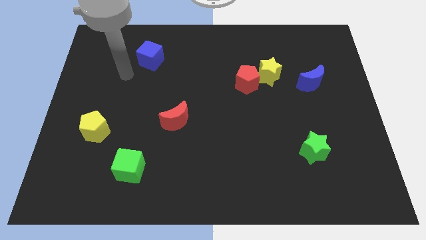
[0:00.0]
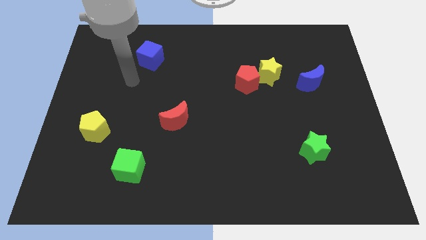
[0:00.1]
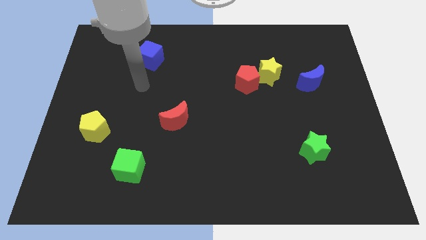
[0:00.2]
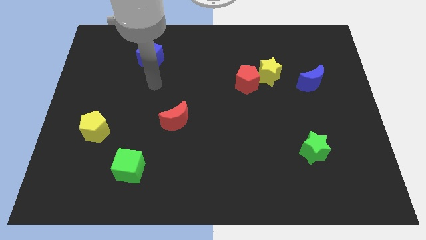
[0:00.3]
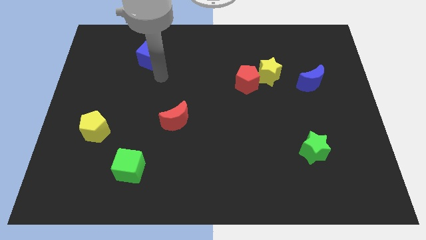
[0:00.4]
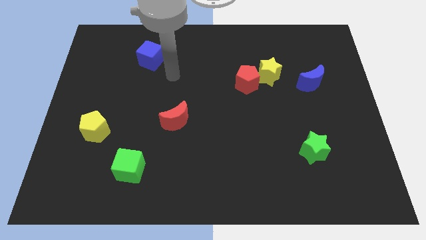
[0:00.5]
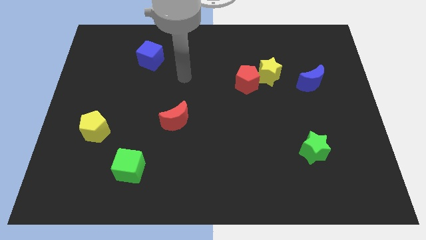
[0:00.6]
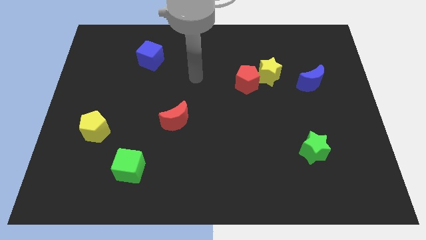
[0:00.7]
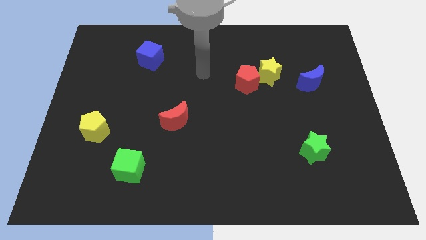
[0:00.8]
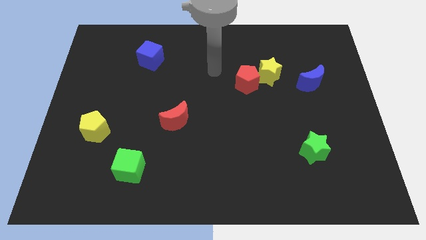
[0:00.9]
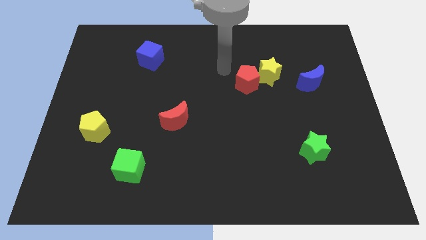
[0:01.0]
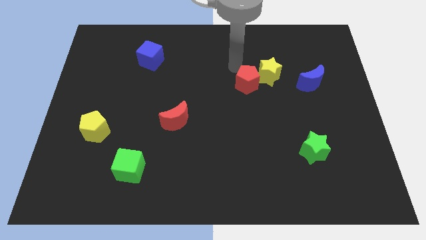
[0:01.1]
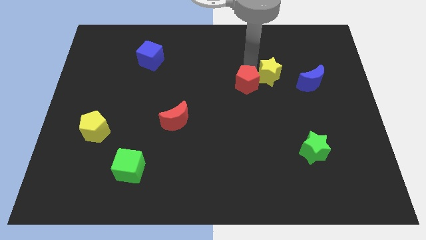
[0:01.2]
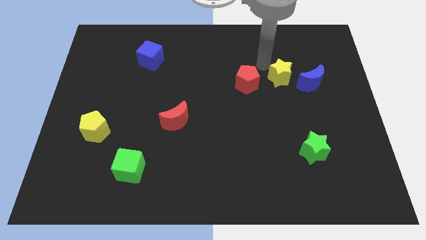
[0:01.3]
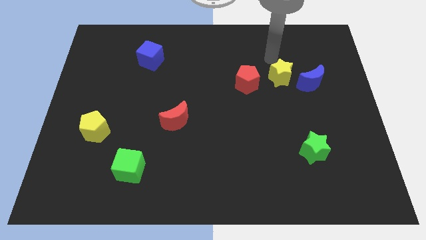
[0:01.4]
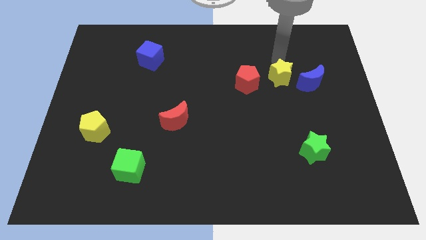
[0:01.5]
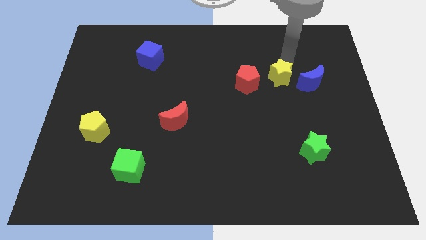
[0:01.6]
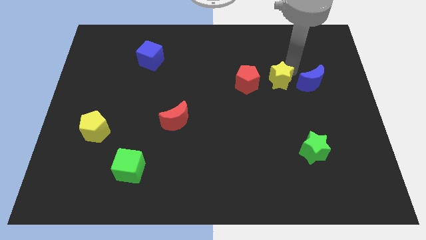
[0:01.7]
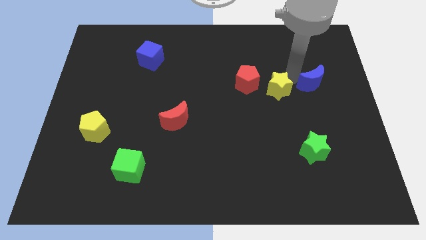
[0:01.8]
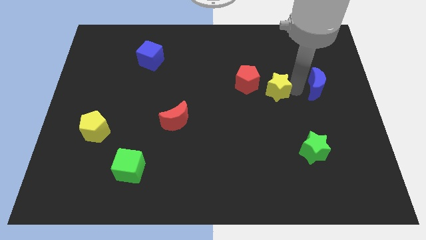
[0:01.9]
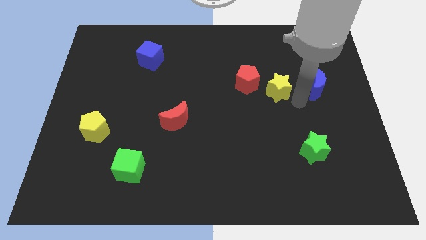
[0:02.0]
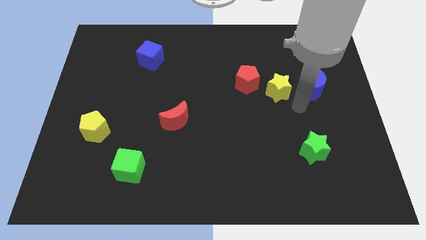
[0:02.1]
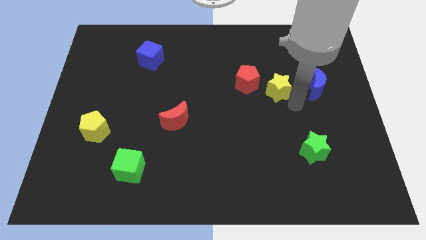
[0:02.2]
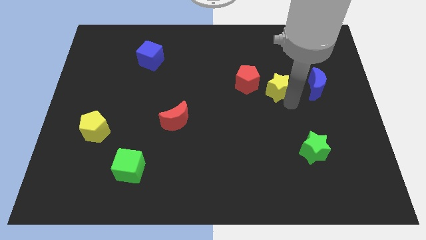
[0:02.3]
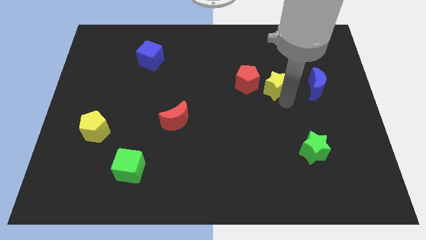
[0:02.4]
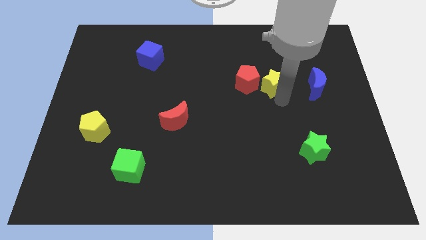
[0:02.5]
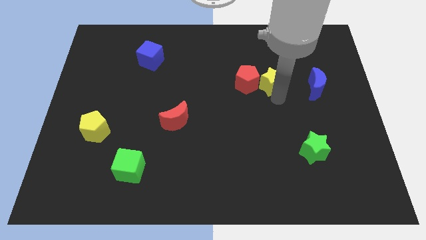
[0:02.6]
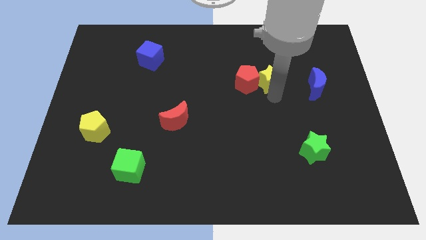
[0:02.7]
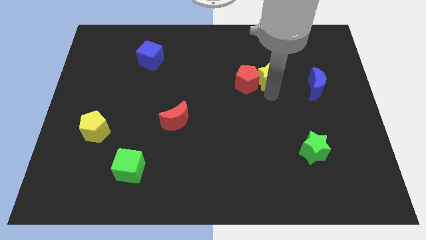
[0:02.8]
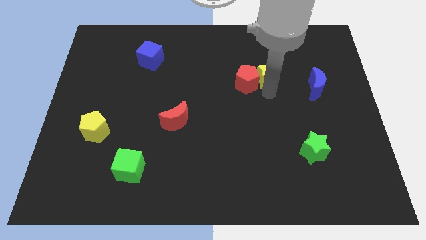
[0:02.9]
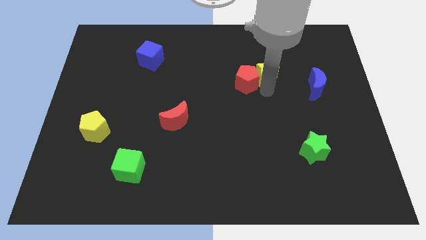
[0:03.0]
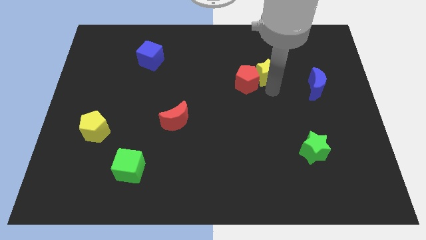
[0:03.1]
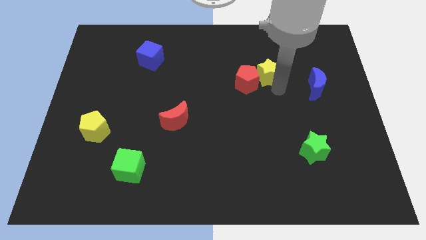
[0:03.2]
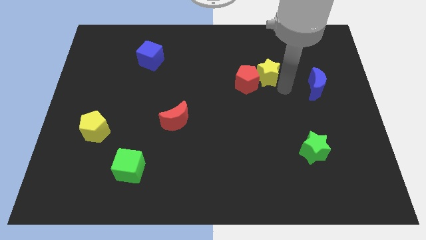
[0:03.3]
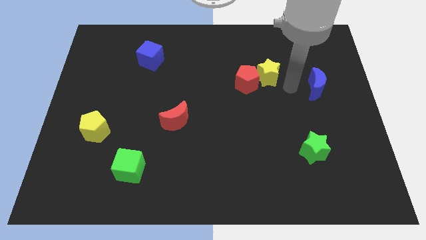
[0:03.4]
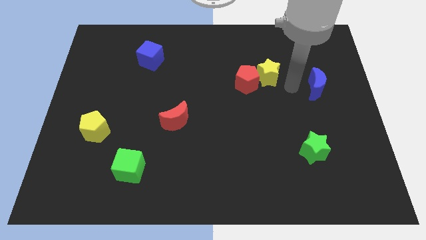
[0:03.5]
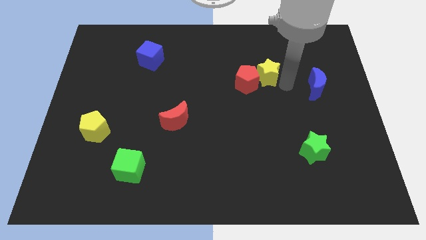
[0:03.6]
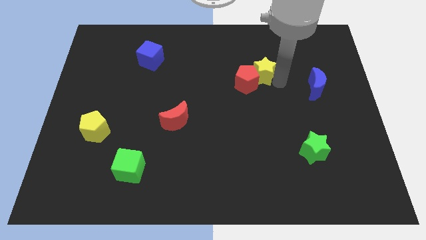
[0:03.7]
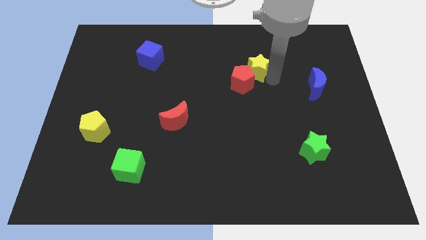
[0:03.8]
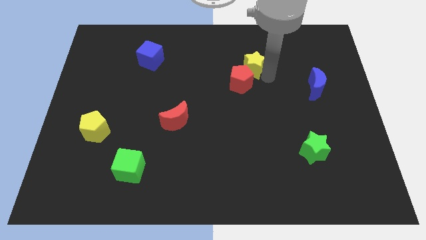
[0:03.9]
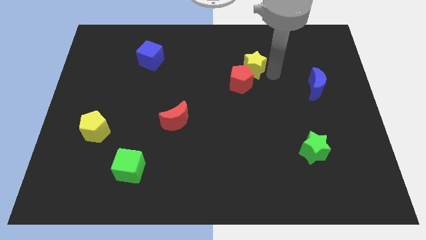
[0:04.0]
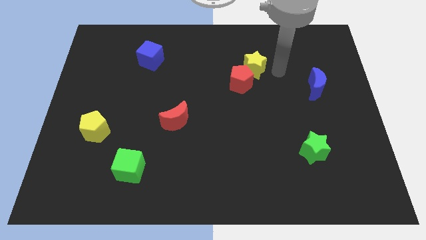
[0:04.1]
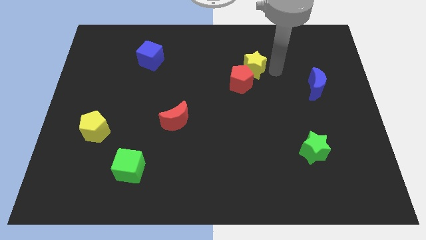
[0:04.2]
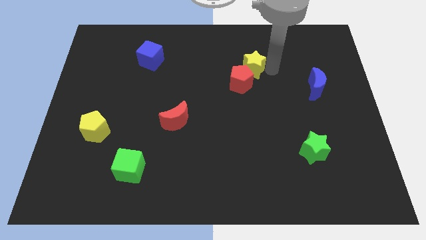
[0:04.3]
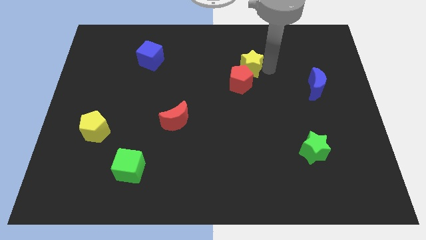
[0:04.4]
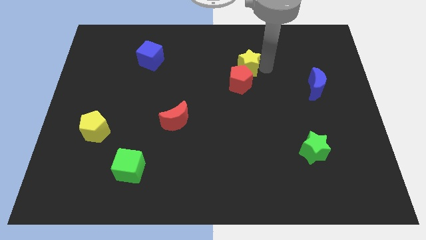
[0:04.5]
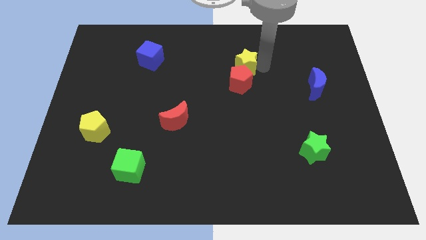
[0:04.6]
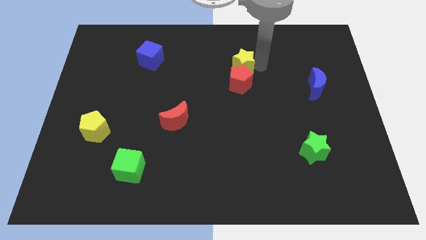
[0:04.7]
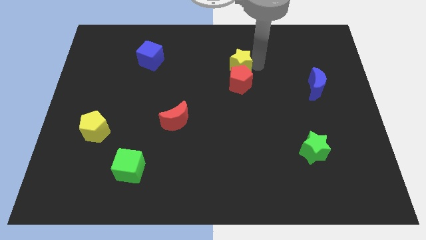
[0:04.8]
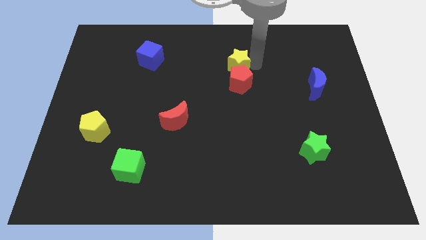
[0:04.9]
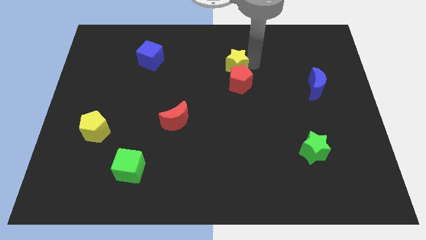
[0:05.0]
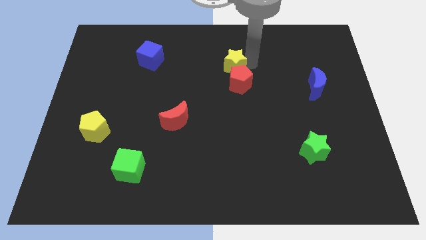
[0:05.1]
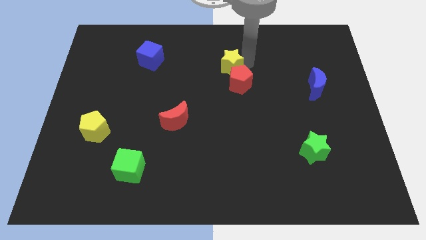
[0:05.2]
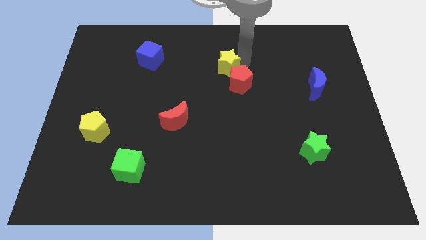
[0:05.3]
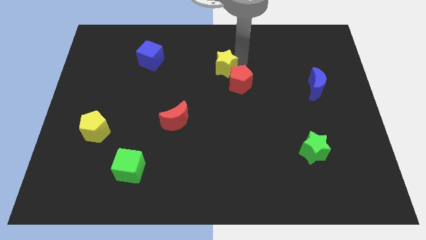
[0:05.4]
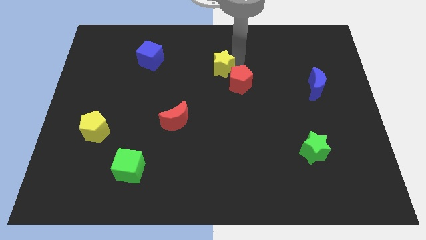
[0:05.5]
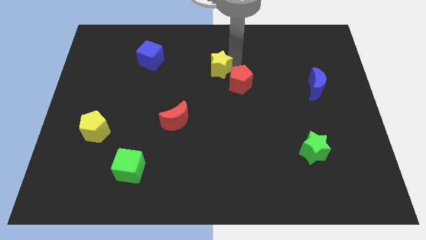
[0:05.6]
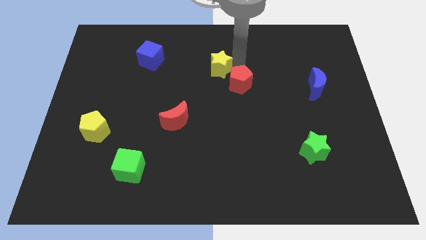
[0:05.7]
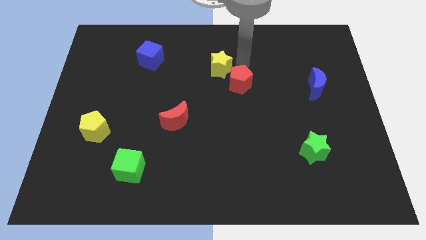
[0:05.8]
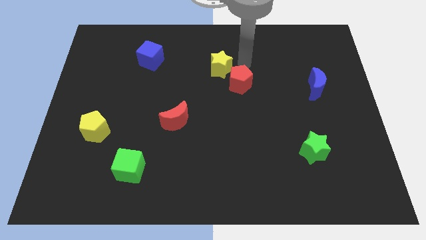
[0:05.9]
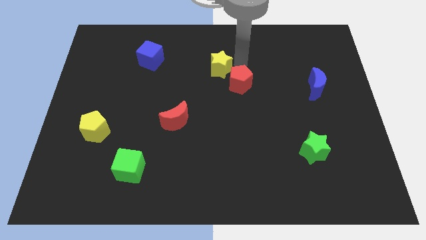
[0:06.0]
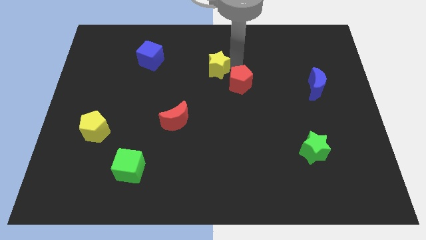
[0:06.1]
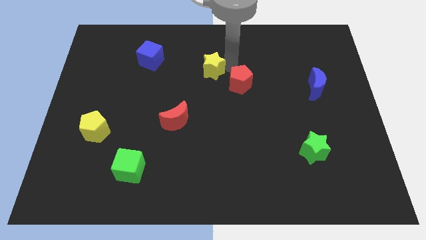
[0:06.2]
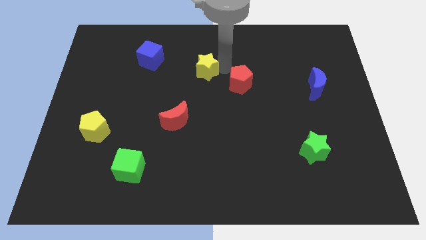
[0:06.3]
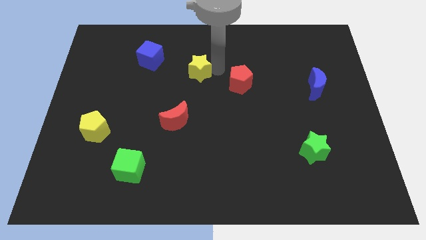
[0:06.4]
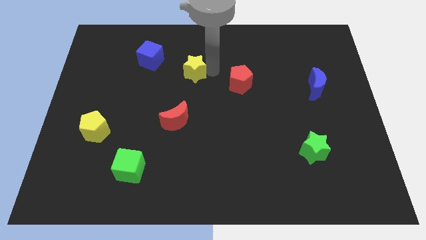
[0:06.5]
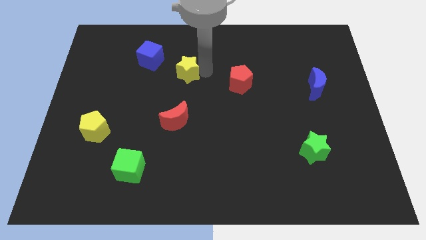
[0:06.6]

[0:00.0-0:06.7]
push the yellow star diagonally down and to the right of the blue cube

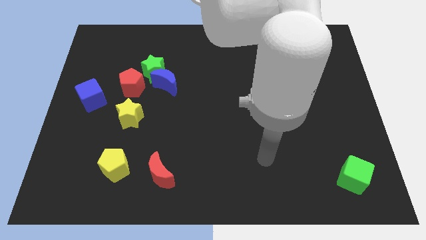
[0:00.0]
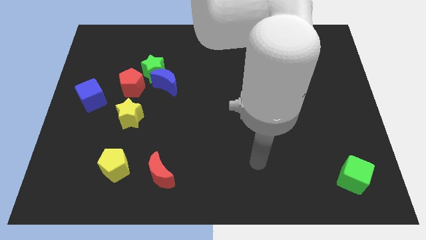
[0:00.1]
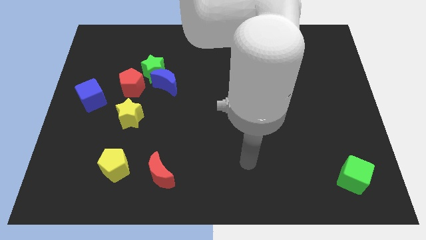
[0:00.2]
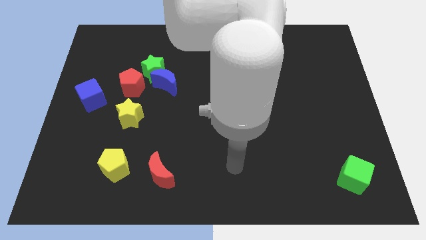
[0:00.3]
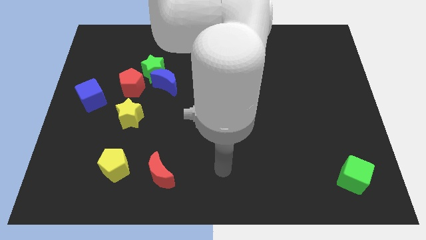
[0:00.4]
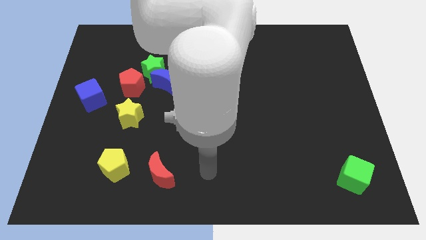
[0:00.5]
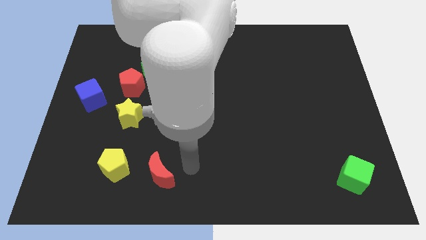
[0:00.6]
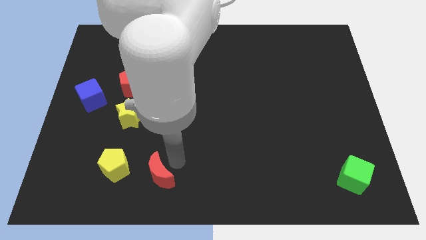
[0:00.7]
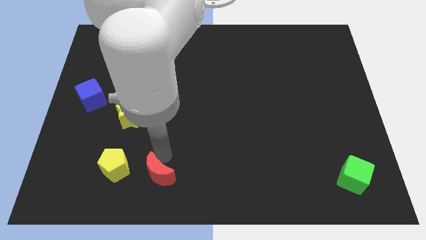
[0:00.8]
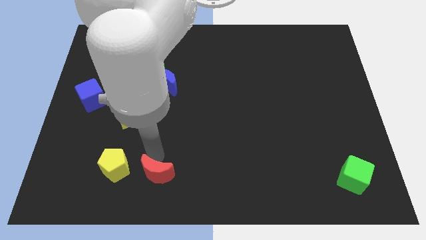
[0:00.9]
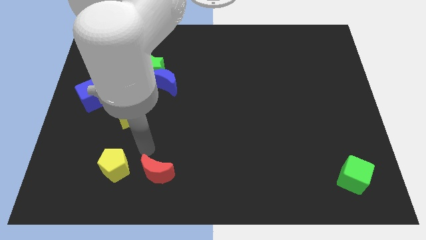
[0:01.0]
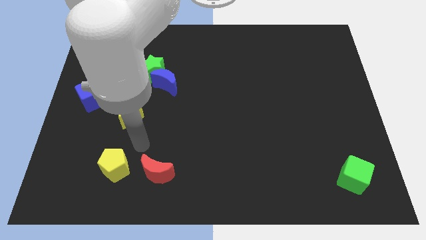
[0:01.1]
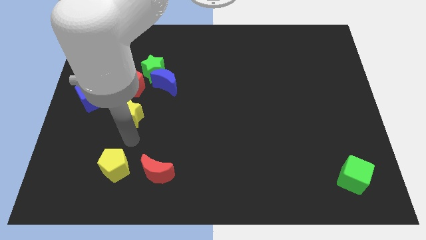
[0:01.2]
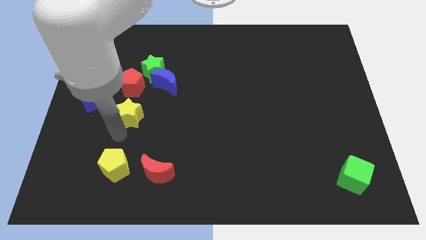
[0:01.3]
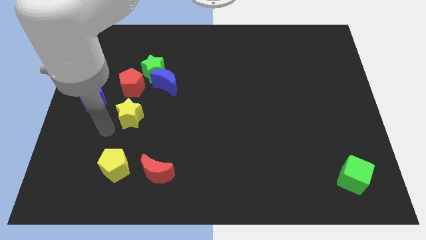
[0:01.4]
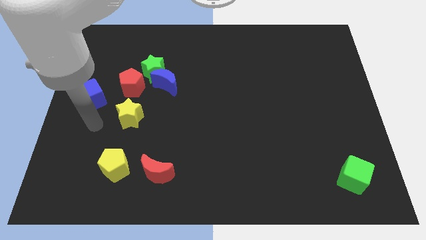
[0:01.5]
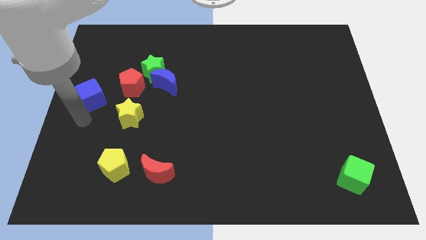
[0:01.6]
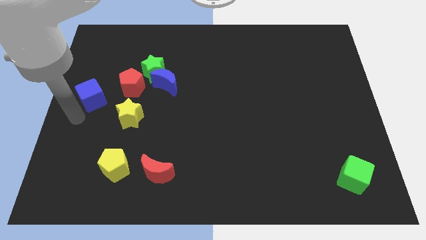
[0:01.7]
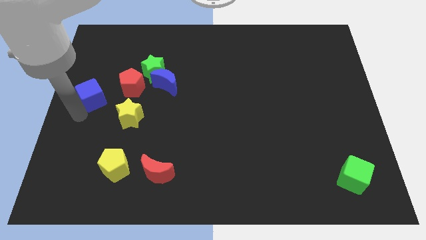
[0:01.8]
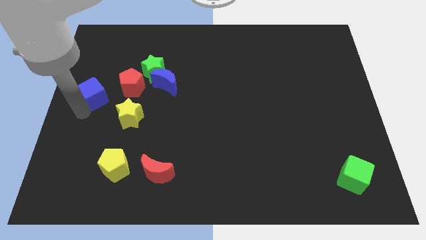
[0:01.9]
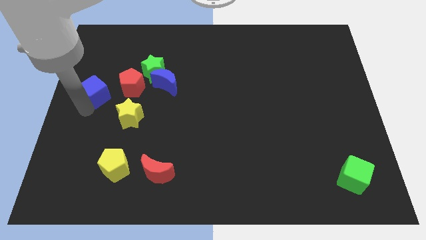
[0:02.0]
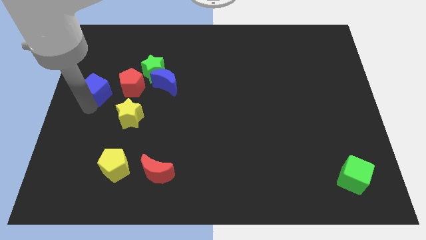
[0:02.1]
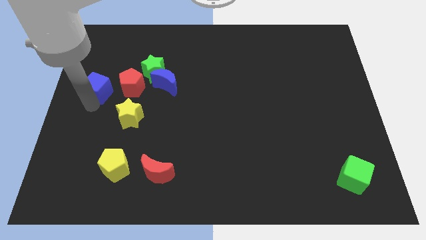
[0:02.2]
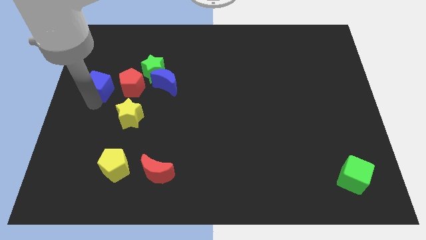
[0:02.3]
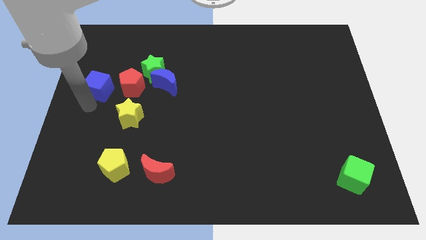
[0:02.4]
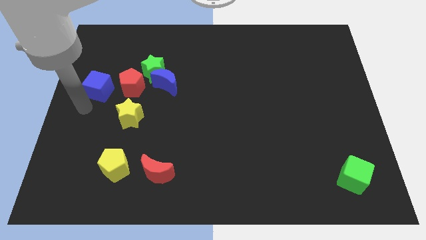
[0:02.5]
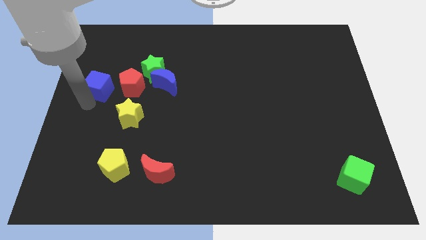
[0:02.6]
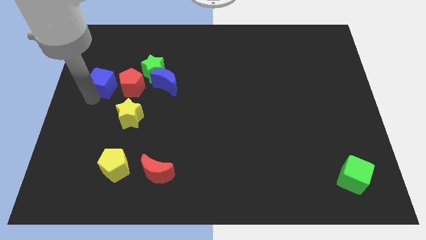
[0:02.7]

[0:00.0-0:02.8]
slide the blue cube to the left of the green star
